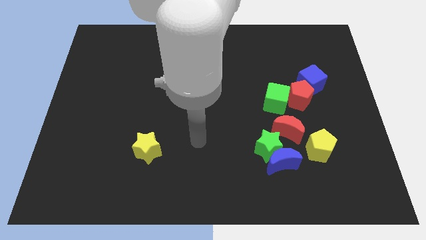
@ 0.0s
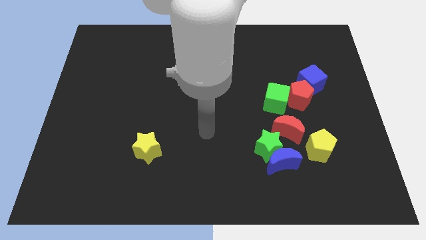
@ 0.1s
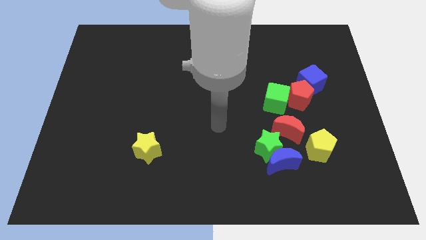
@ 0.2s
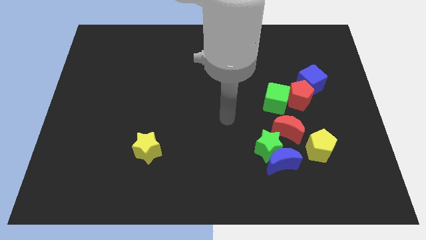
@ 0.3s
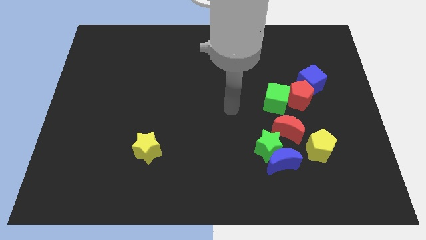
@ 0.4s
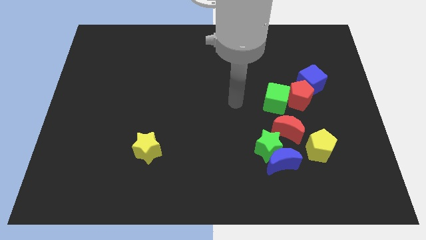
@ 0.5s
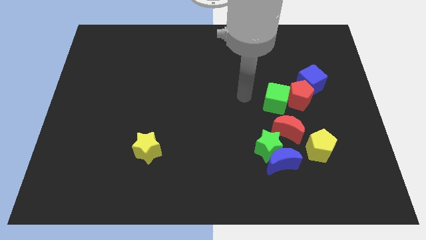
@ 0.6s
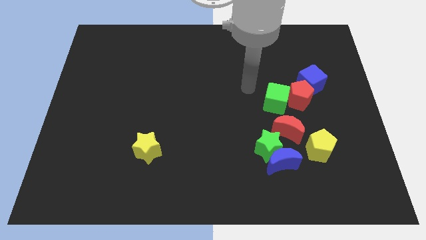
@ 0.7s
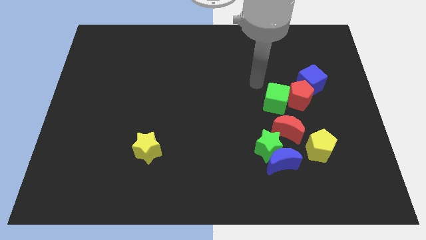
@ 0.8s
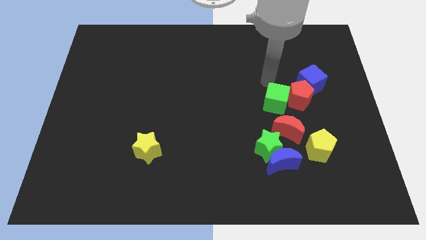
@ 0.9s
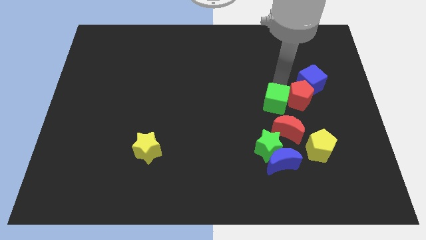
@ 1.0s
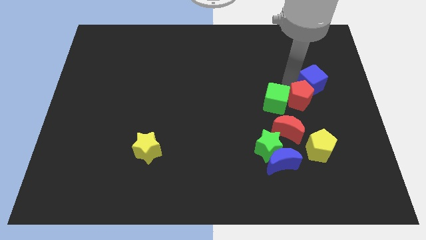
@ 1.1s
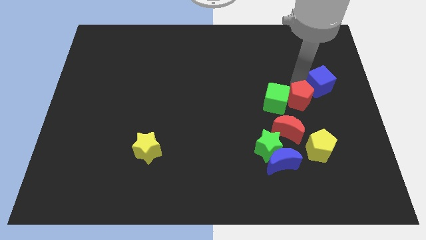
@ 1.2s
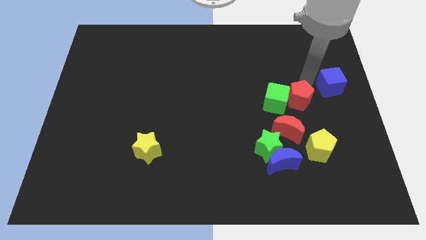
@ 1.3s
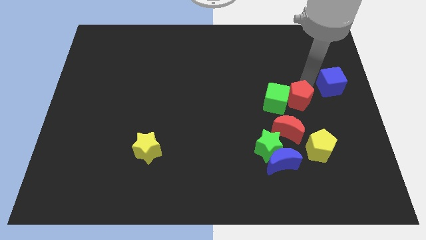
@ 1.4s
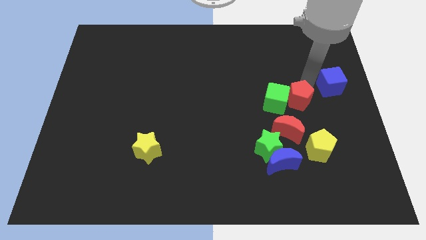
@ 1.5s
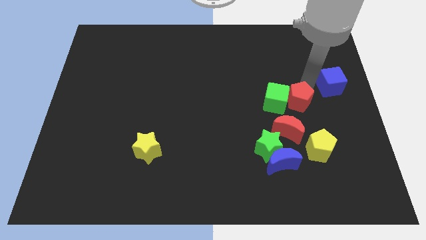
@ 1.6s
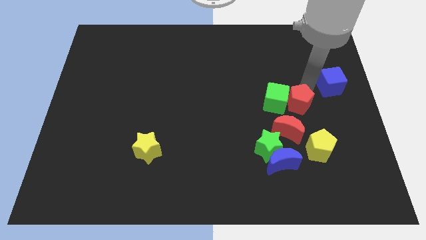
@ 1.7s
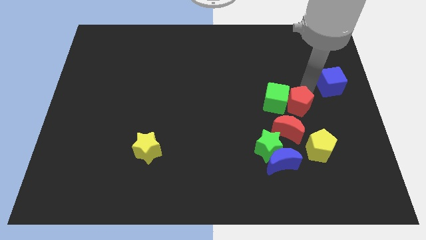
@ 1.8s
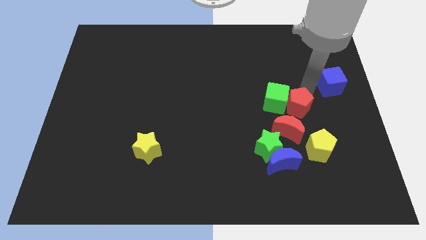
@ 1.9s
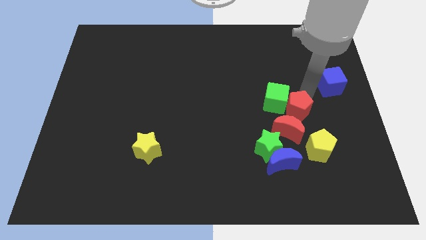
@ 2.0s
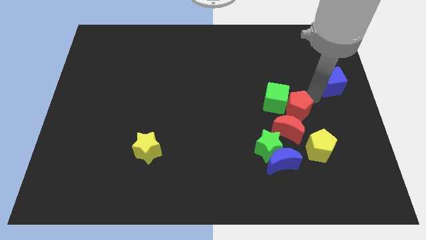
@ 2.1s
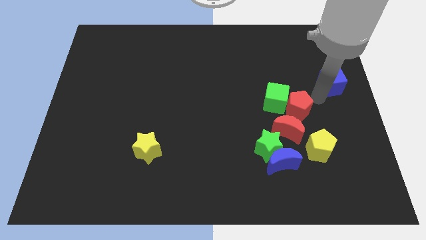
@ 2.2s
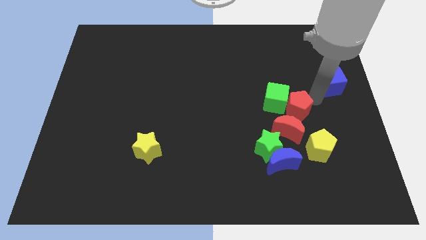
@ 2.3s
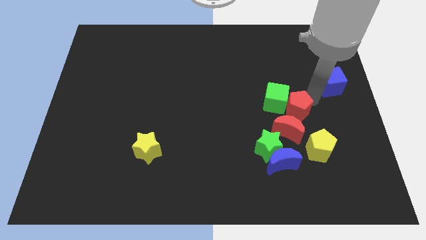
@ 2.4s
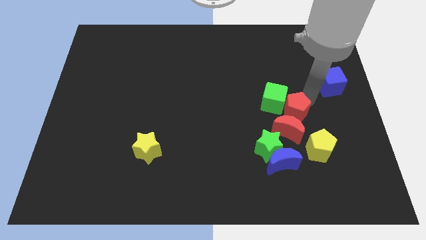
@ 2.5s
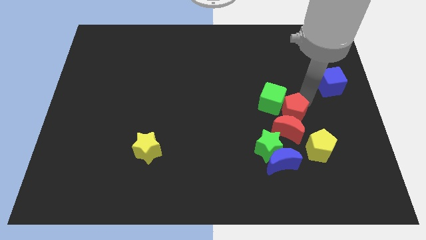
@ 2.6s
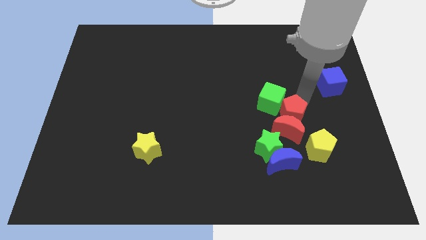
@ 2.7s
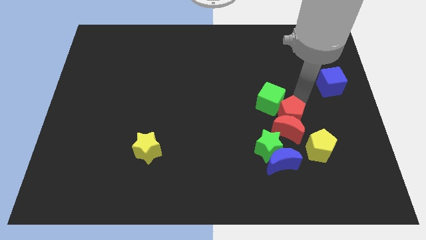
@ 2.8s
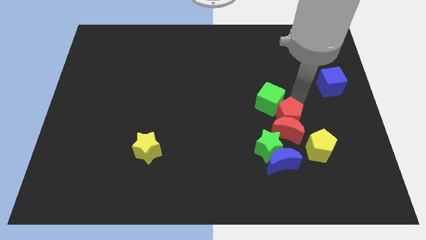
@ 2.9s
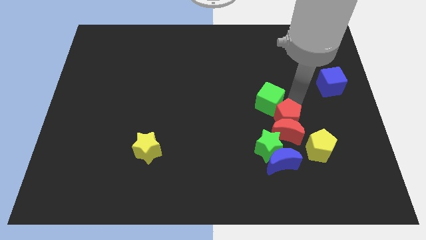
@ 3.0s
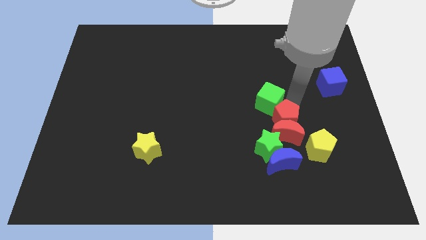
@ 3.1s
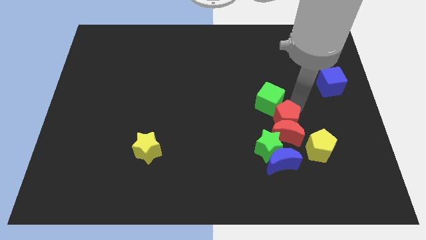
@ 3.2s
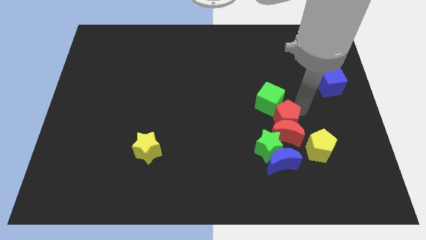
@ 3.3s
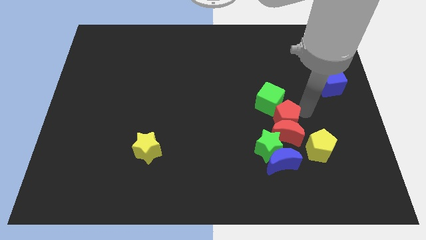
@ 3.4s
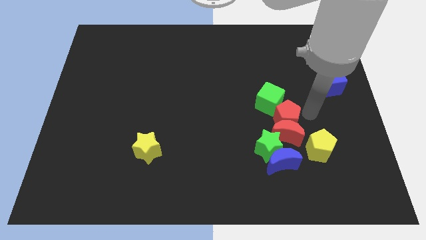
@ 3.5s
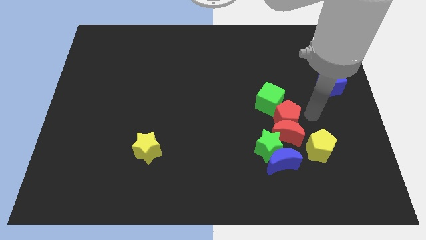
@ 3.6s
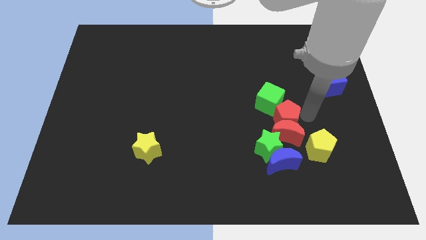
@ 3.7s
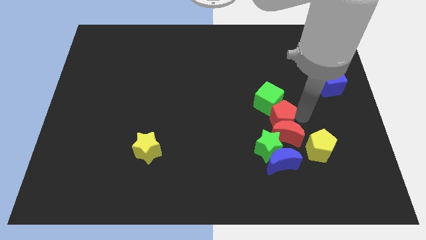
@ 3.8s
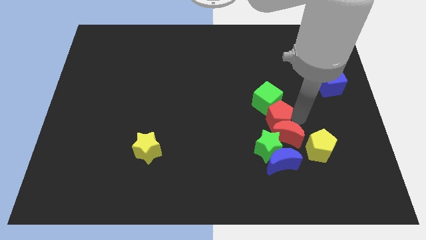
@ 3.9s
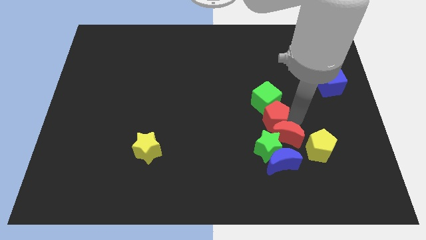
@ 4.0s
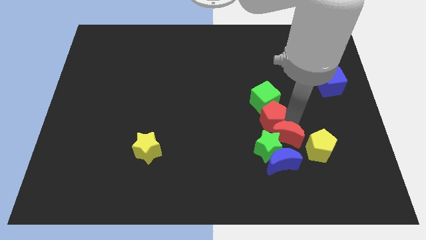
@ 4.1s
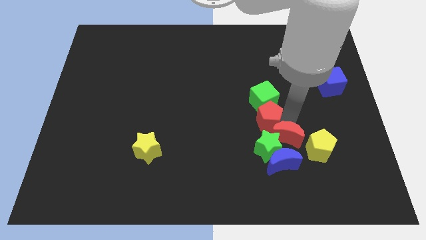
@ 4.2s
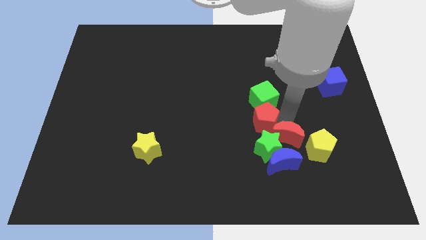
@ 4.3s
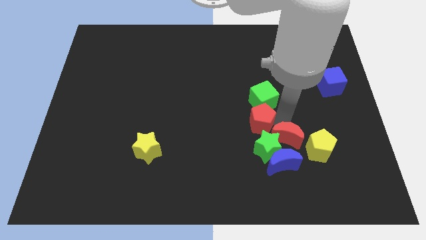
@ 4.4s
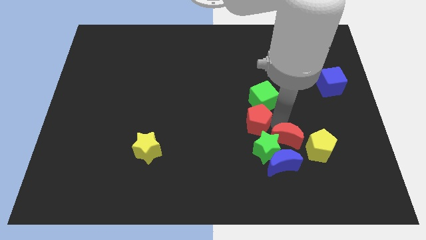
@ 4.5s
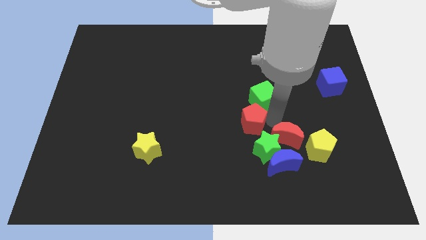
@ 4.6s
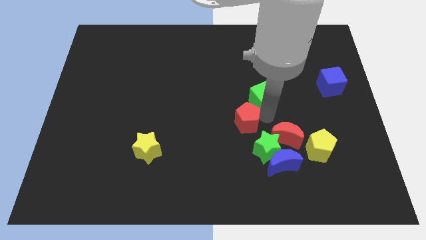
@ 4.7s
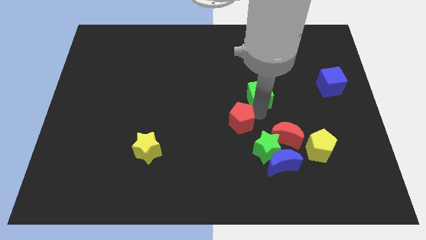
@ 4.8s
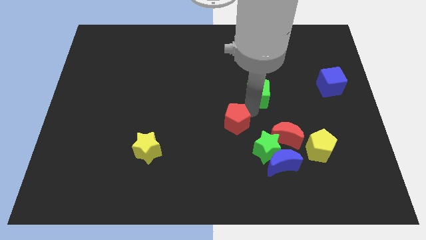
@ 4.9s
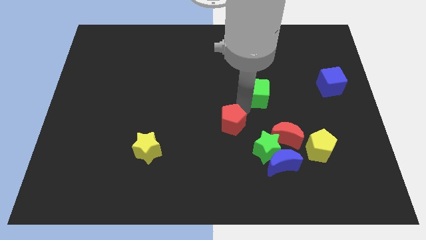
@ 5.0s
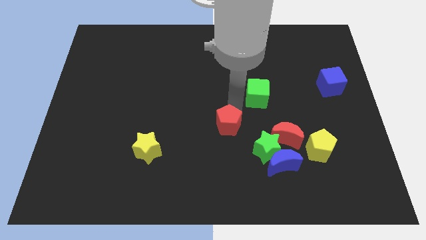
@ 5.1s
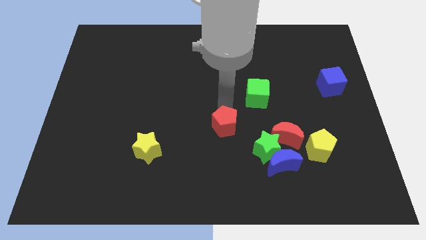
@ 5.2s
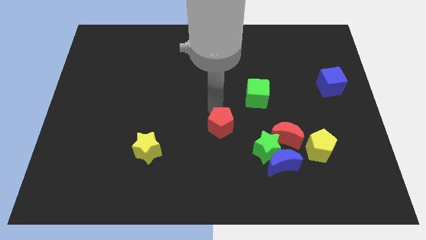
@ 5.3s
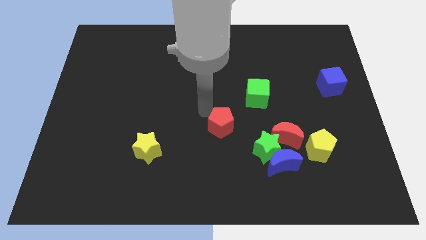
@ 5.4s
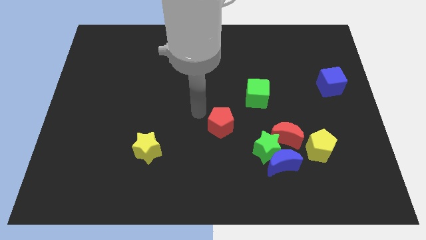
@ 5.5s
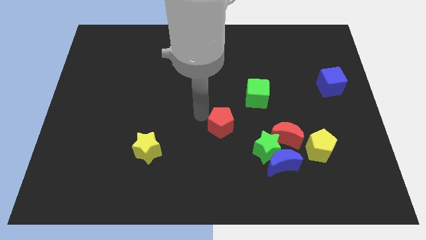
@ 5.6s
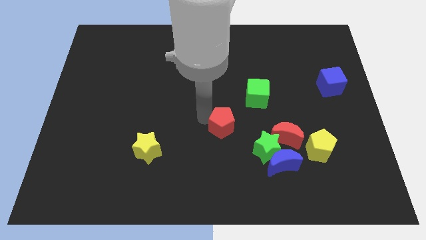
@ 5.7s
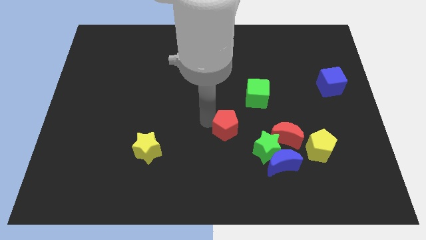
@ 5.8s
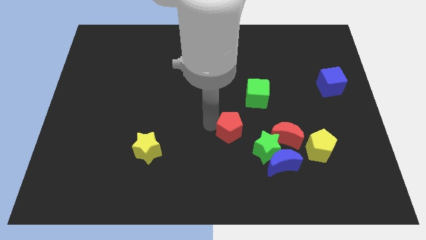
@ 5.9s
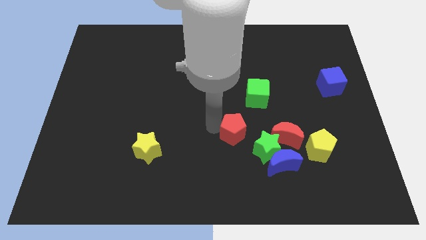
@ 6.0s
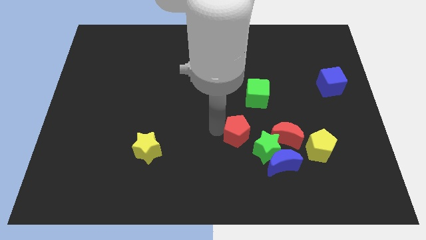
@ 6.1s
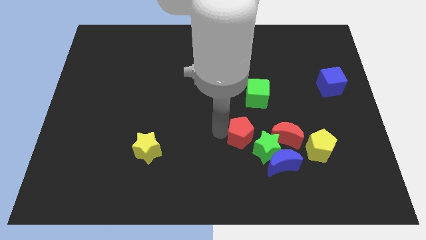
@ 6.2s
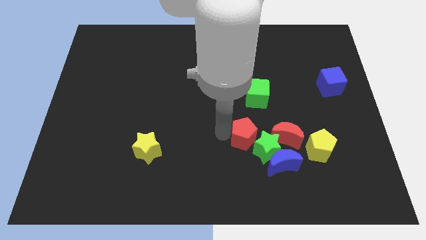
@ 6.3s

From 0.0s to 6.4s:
move the red pentagon next to the green star
